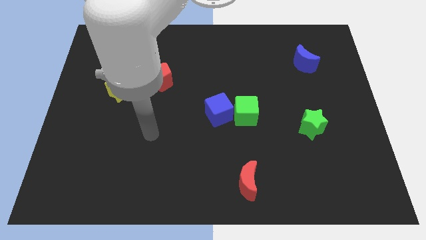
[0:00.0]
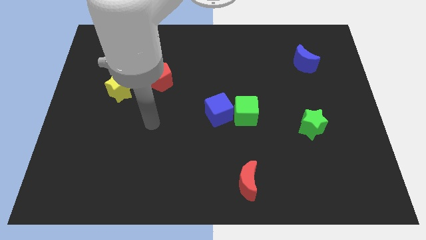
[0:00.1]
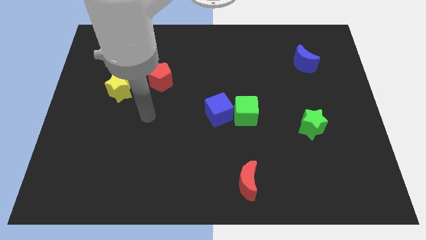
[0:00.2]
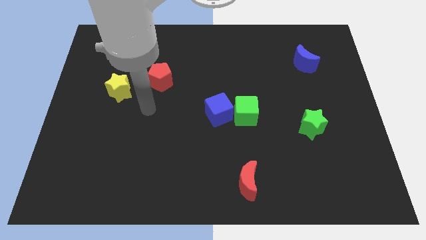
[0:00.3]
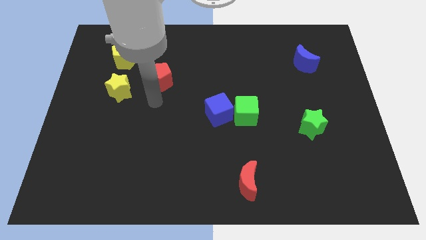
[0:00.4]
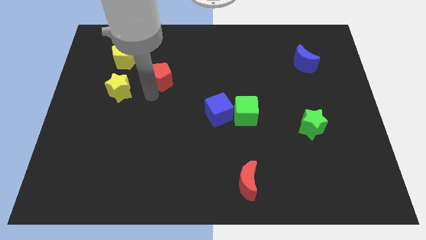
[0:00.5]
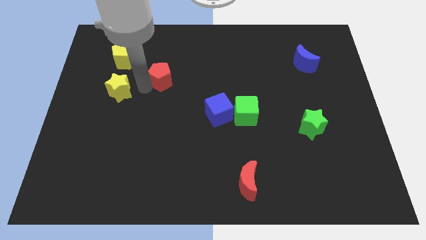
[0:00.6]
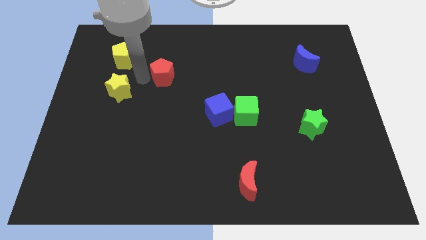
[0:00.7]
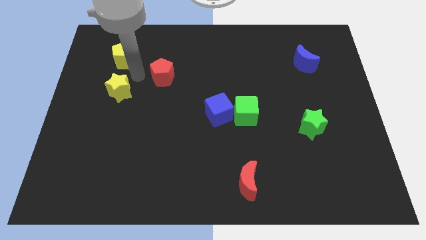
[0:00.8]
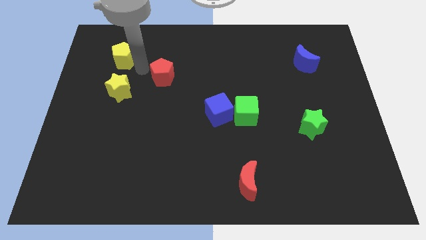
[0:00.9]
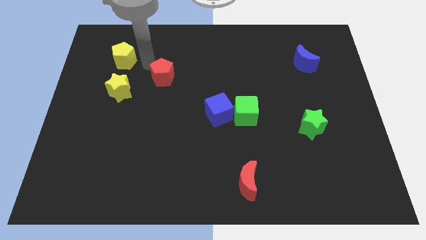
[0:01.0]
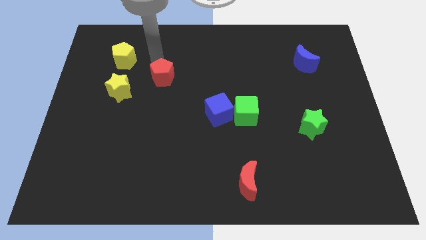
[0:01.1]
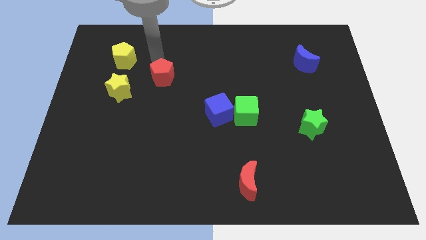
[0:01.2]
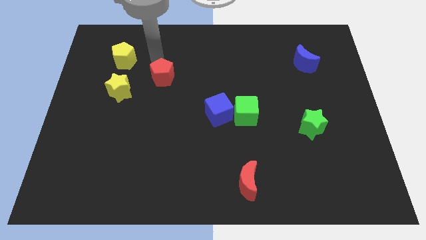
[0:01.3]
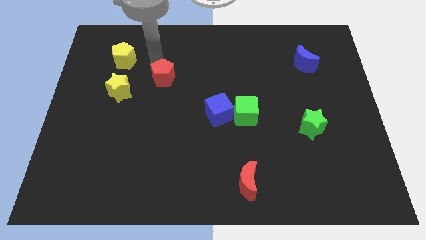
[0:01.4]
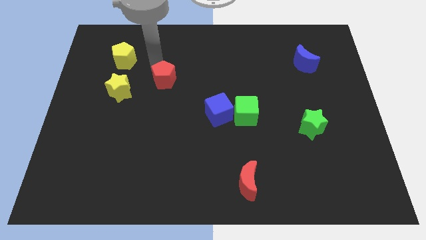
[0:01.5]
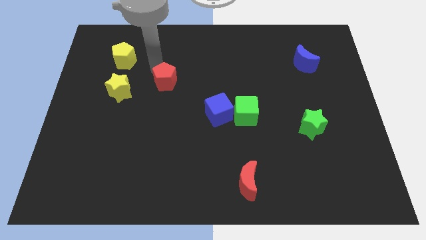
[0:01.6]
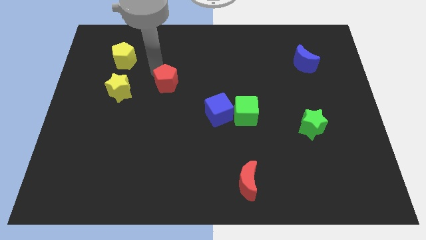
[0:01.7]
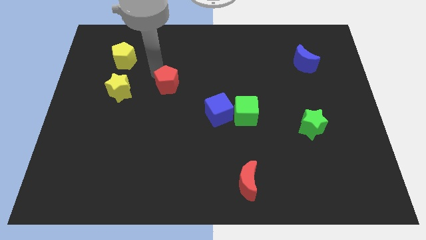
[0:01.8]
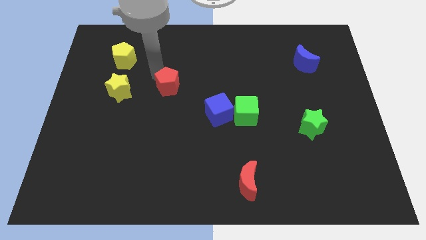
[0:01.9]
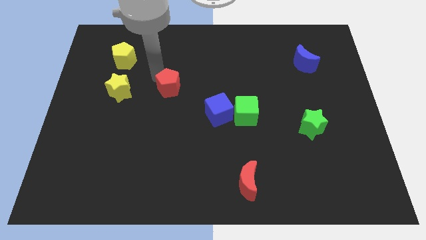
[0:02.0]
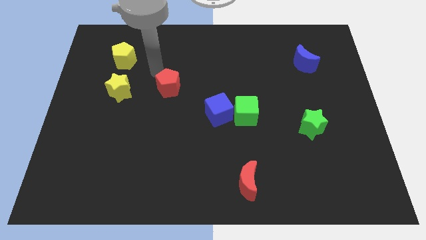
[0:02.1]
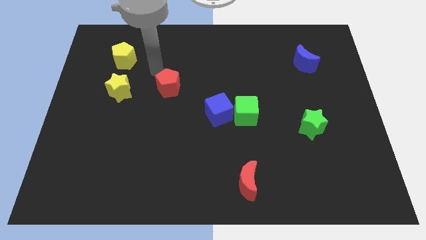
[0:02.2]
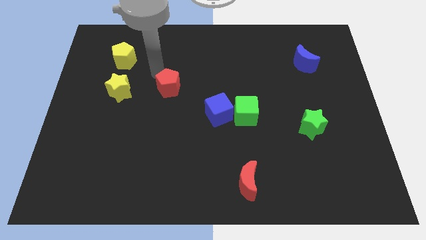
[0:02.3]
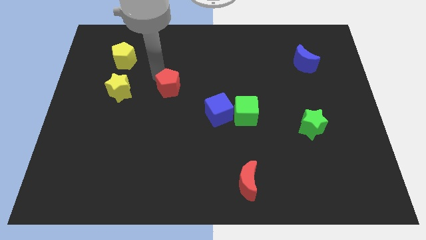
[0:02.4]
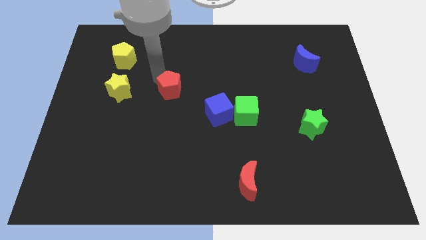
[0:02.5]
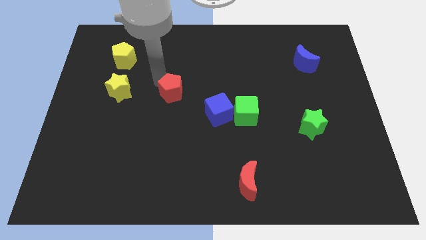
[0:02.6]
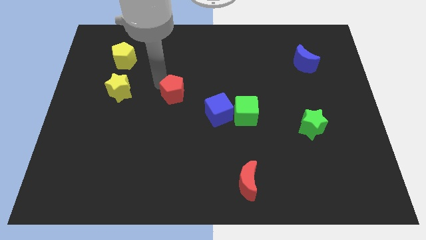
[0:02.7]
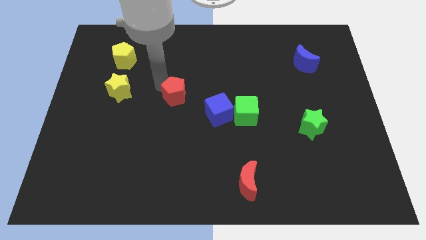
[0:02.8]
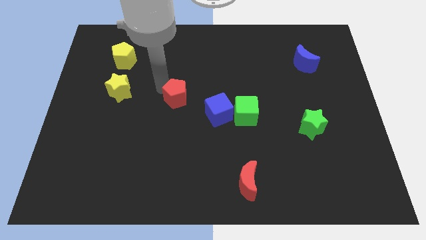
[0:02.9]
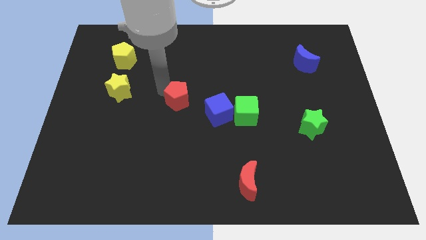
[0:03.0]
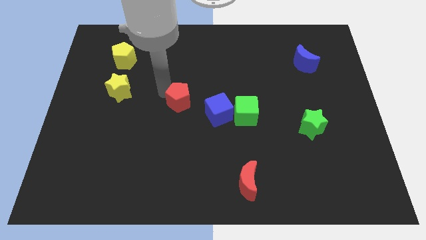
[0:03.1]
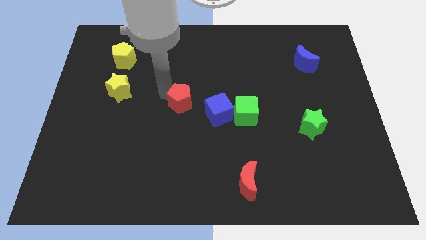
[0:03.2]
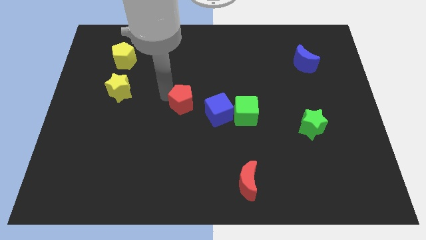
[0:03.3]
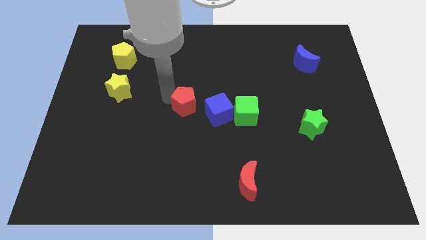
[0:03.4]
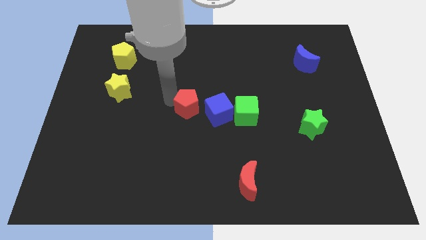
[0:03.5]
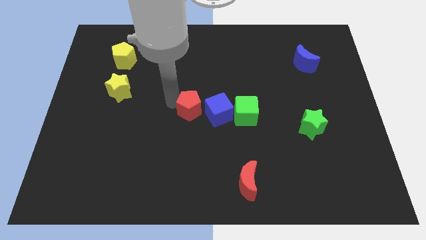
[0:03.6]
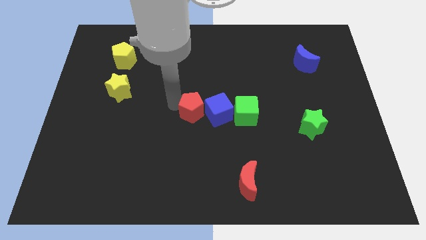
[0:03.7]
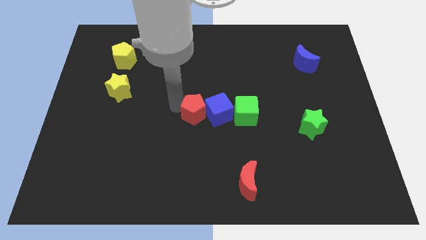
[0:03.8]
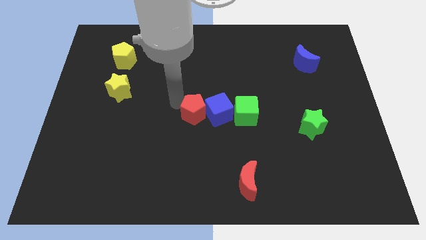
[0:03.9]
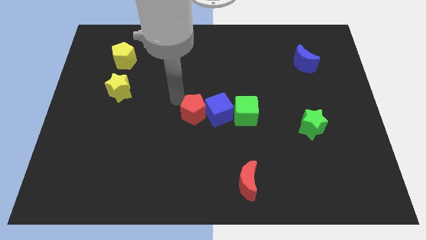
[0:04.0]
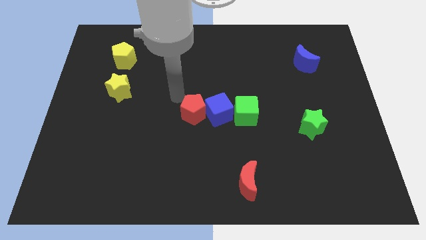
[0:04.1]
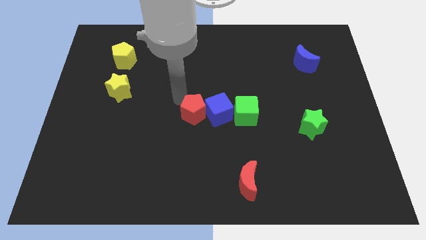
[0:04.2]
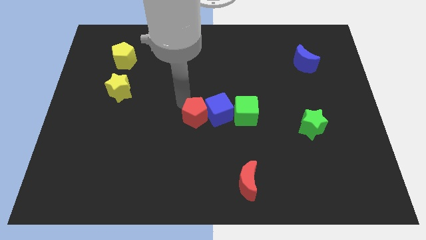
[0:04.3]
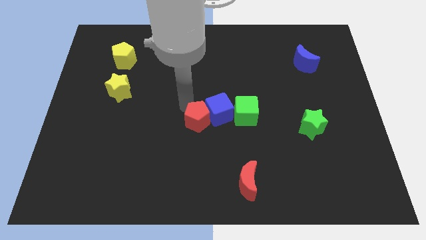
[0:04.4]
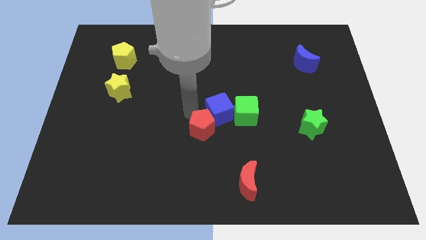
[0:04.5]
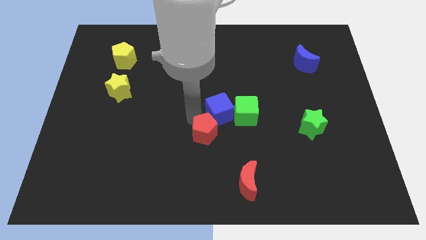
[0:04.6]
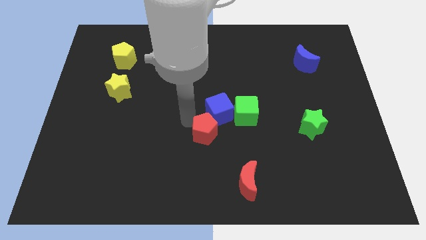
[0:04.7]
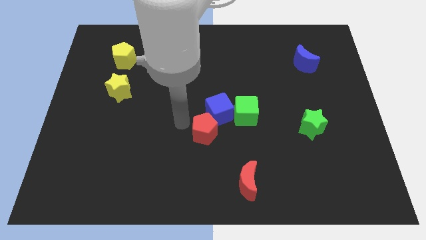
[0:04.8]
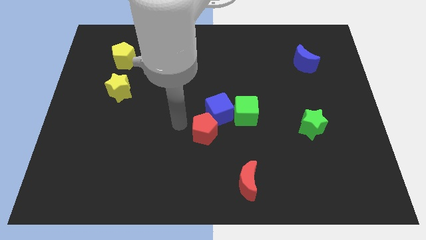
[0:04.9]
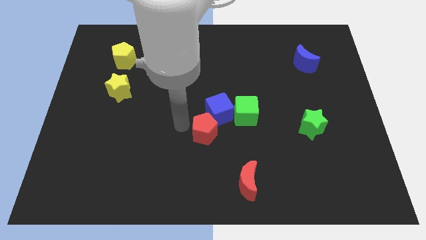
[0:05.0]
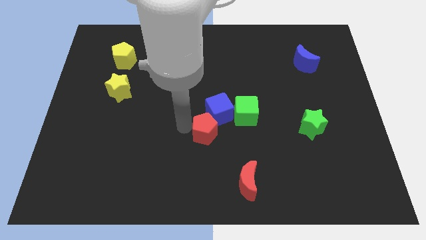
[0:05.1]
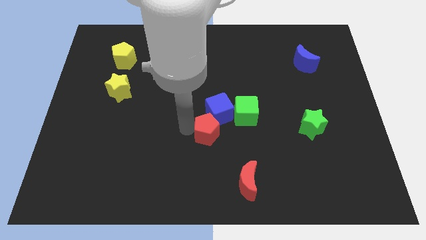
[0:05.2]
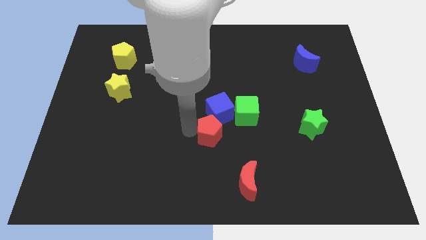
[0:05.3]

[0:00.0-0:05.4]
push the red pentagon downwards and to the right diagonally

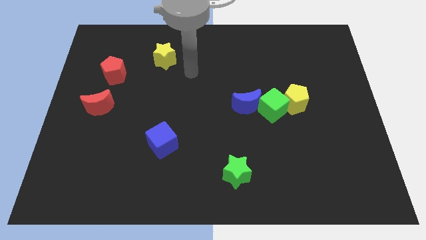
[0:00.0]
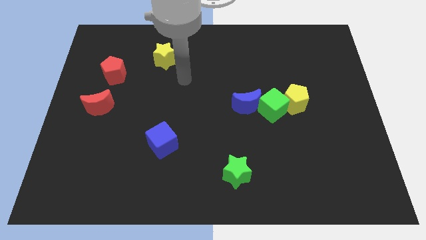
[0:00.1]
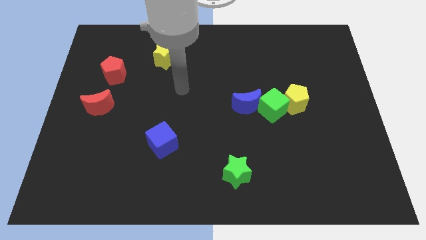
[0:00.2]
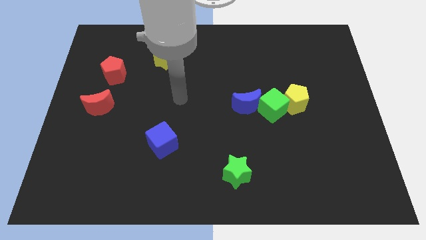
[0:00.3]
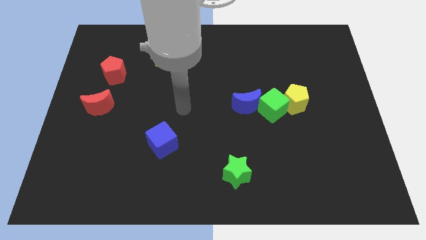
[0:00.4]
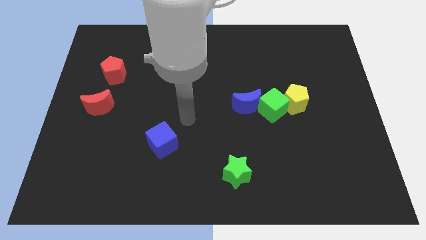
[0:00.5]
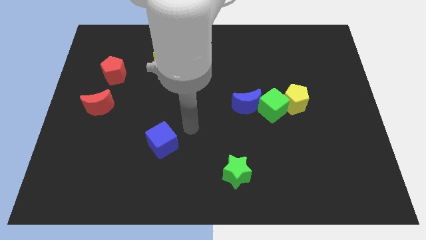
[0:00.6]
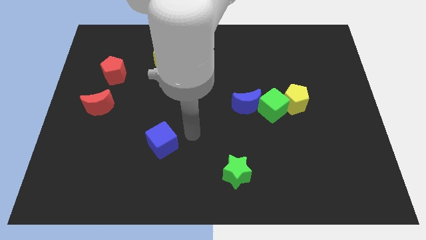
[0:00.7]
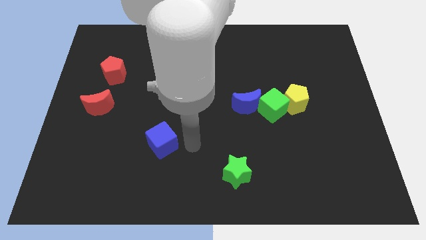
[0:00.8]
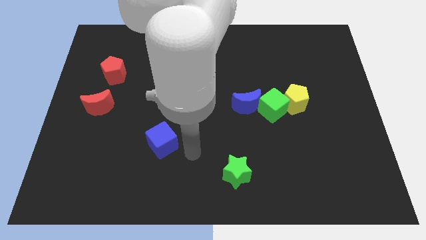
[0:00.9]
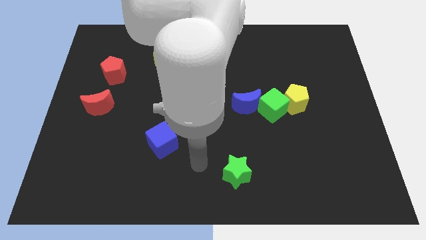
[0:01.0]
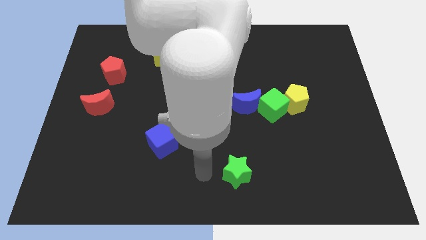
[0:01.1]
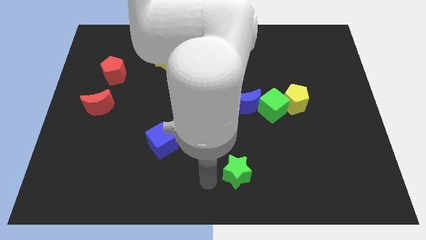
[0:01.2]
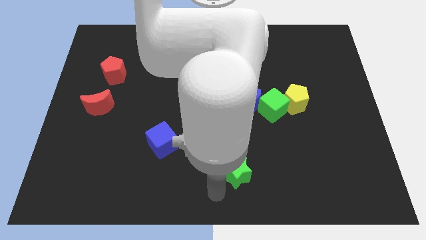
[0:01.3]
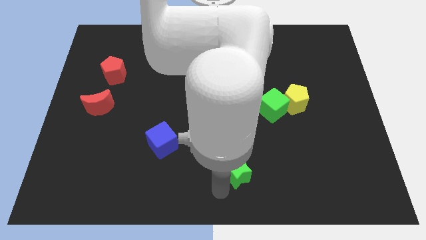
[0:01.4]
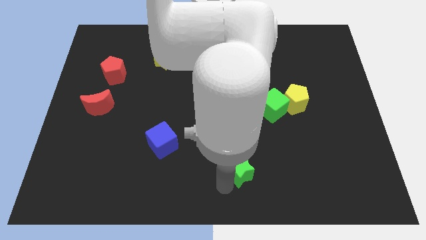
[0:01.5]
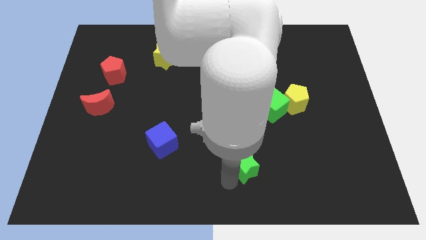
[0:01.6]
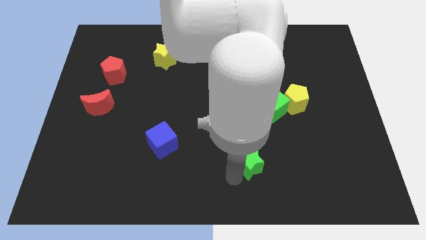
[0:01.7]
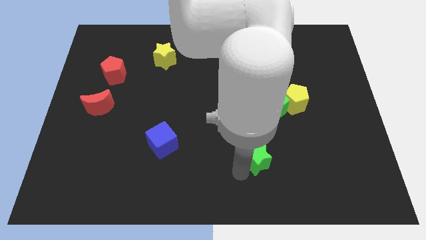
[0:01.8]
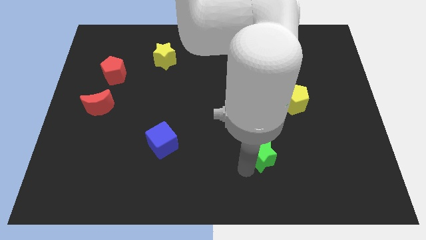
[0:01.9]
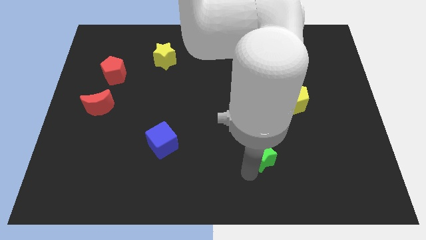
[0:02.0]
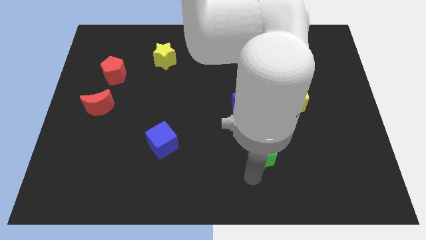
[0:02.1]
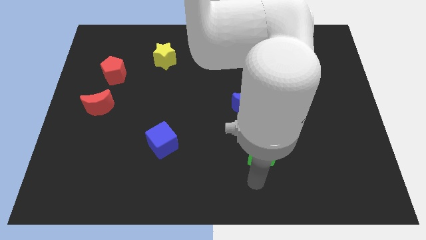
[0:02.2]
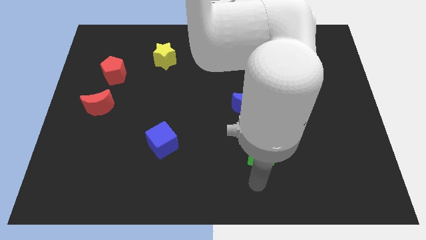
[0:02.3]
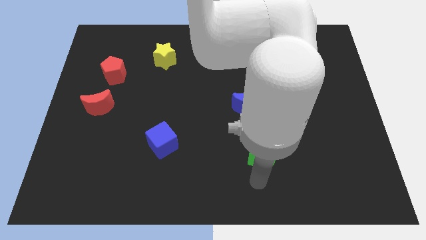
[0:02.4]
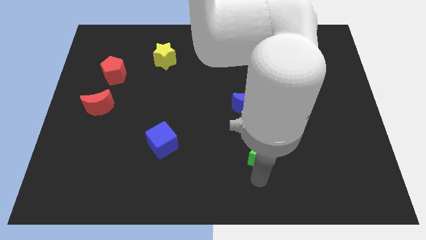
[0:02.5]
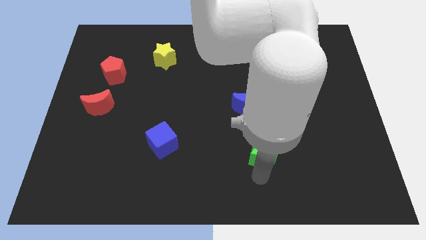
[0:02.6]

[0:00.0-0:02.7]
move the green star up and then to the right a little bit
